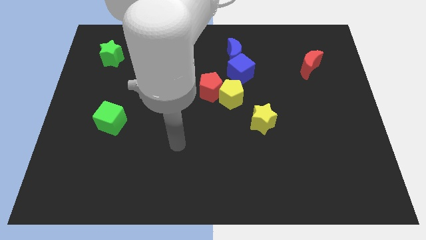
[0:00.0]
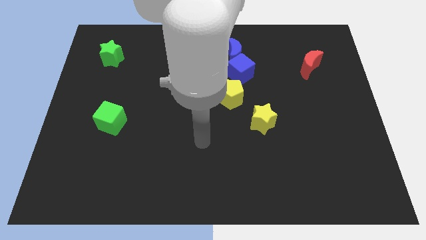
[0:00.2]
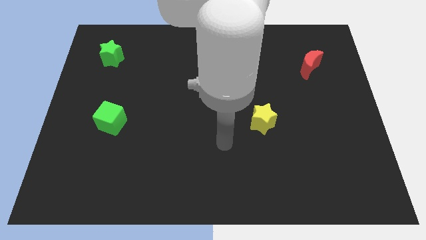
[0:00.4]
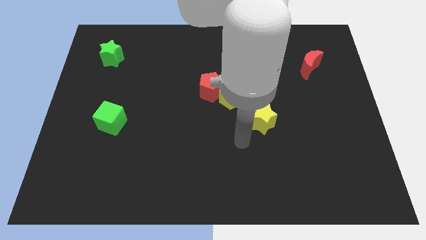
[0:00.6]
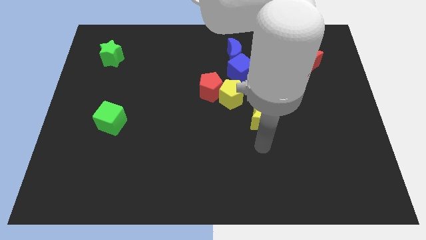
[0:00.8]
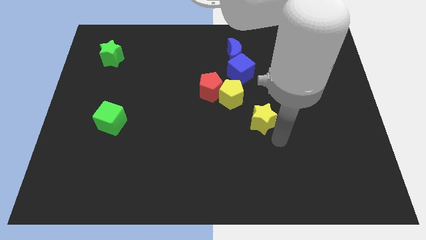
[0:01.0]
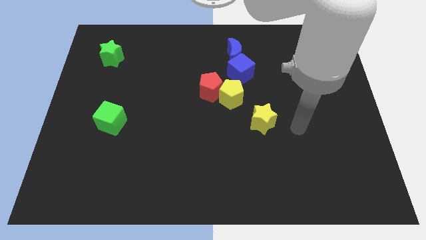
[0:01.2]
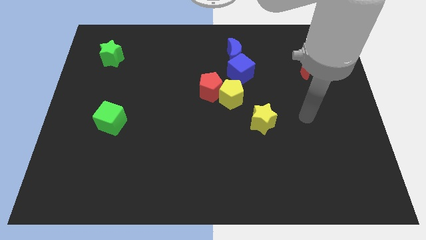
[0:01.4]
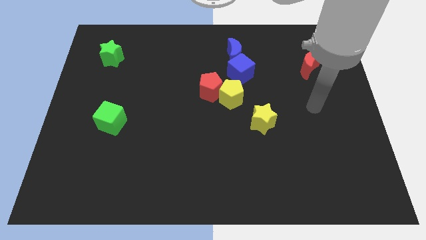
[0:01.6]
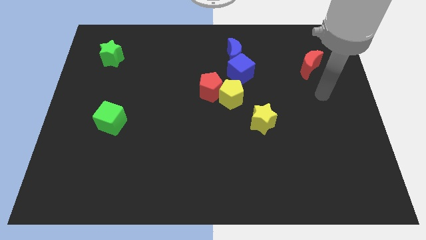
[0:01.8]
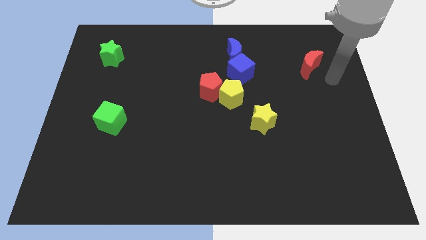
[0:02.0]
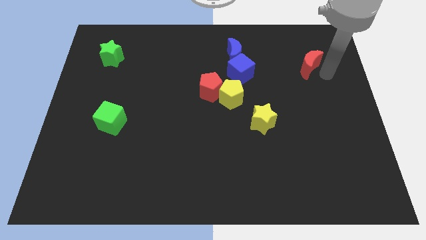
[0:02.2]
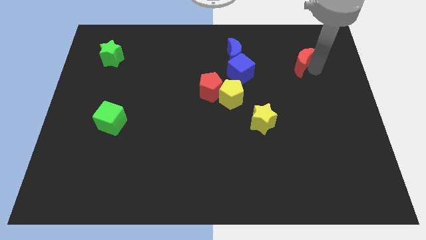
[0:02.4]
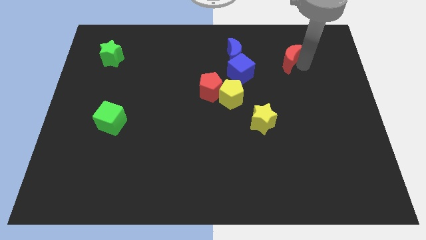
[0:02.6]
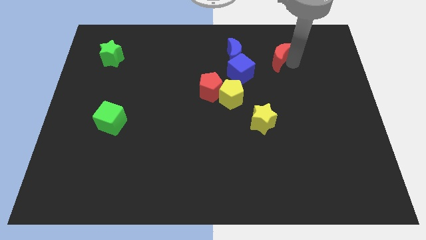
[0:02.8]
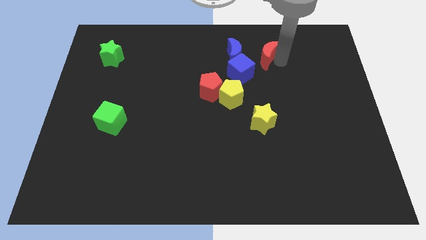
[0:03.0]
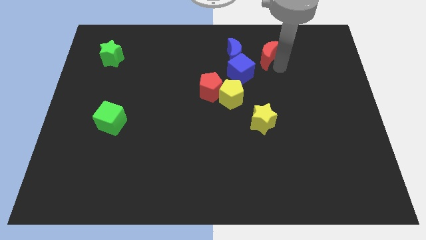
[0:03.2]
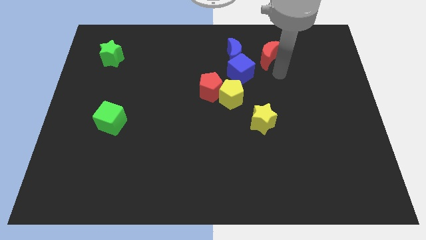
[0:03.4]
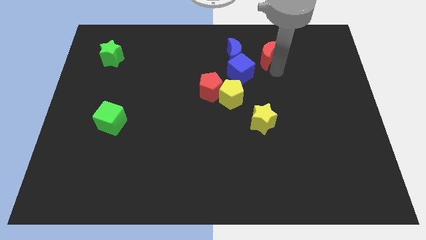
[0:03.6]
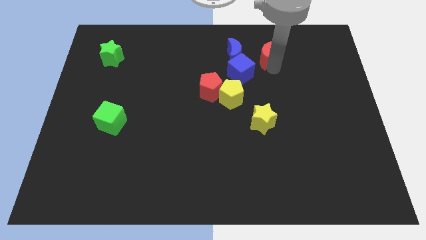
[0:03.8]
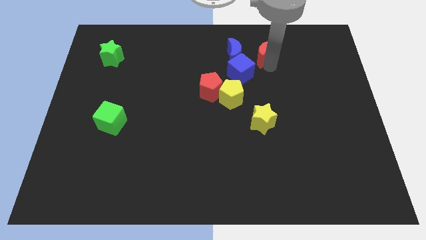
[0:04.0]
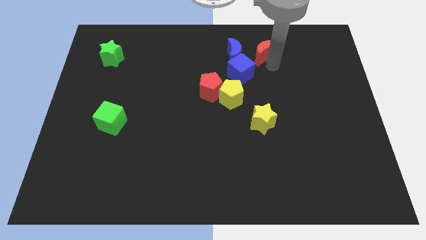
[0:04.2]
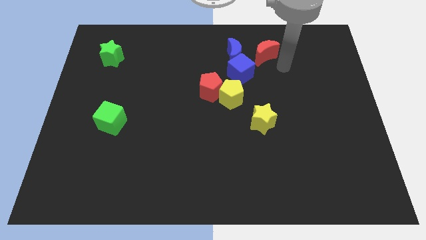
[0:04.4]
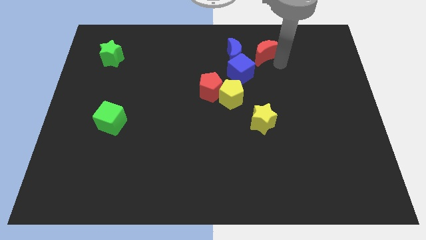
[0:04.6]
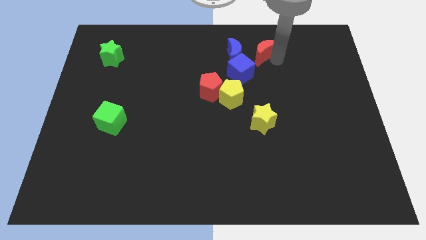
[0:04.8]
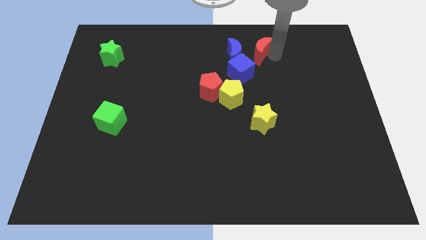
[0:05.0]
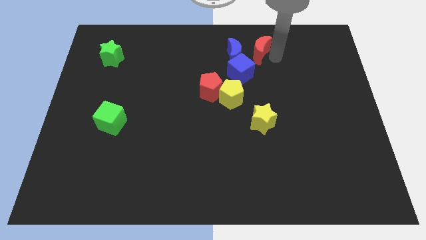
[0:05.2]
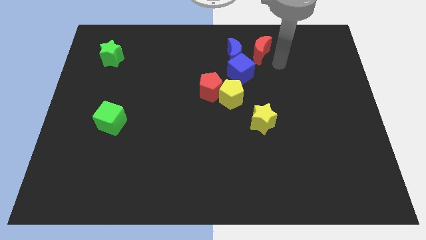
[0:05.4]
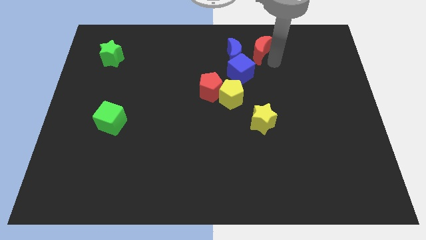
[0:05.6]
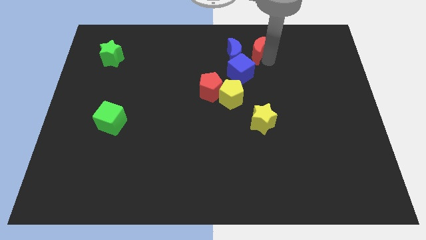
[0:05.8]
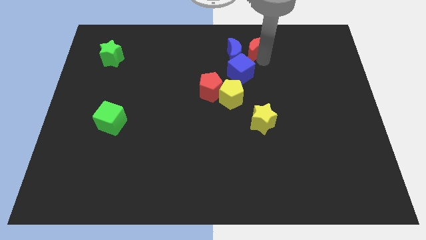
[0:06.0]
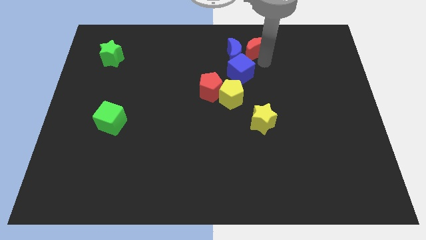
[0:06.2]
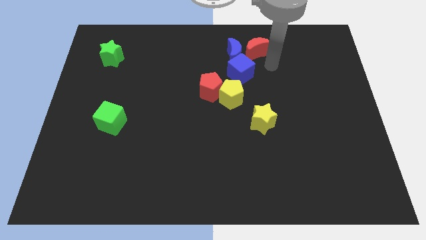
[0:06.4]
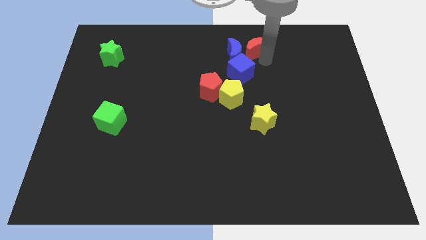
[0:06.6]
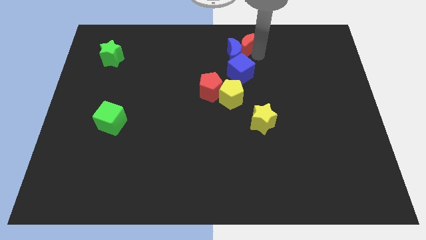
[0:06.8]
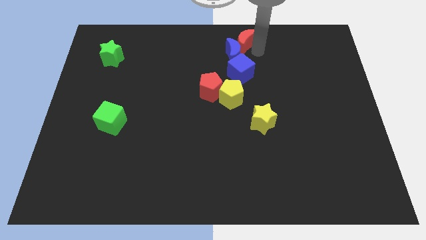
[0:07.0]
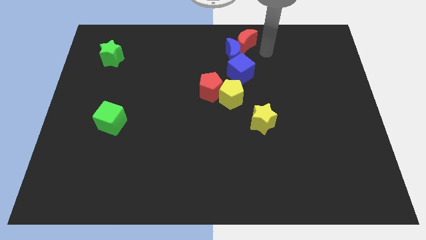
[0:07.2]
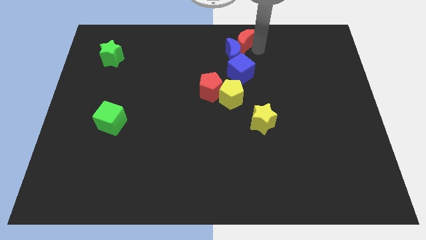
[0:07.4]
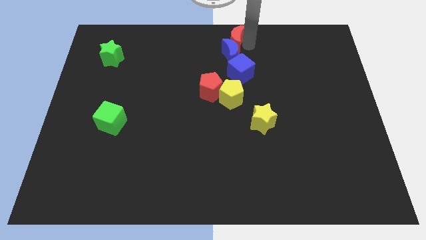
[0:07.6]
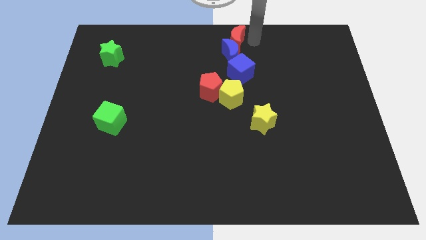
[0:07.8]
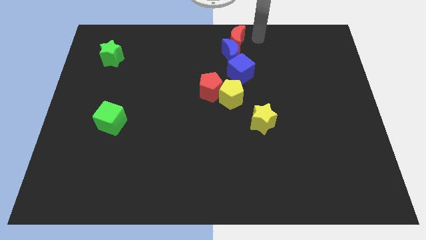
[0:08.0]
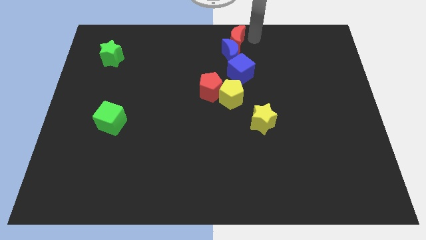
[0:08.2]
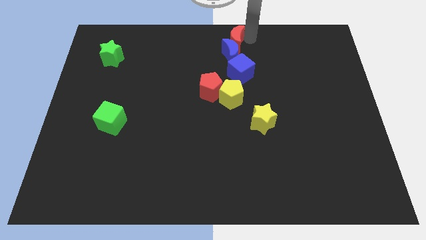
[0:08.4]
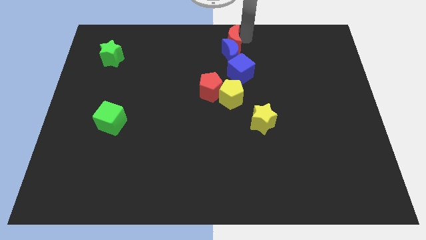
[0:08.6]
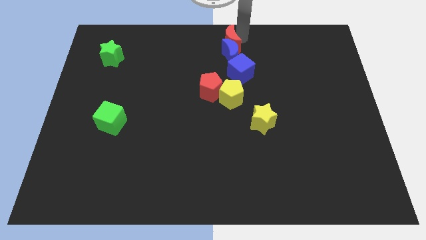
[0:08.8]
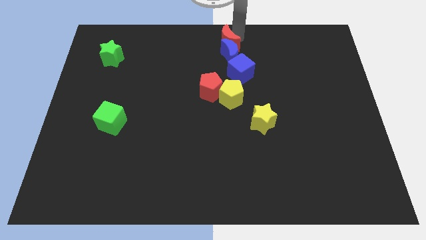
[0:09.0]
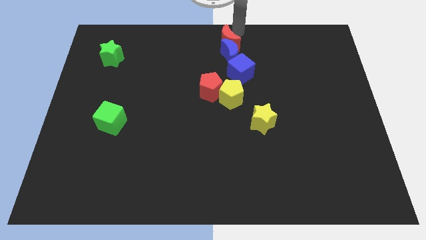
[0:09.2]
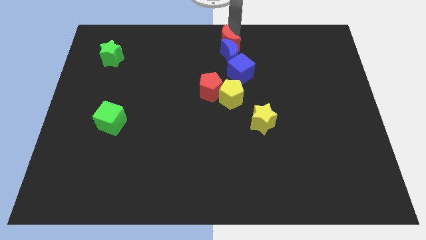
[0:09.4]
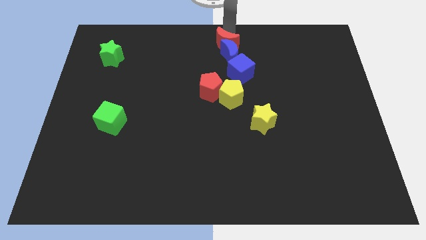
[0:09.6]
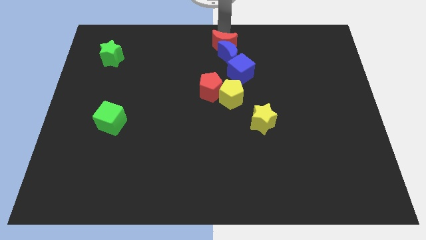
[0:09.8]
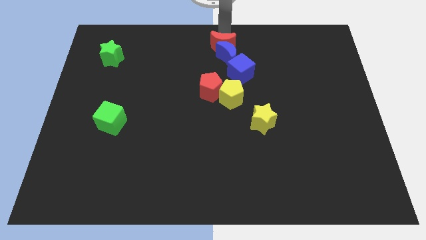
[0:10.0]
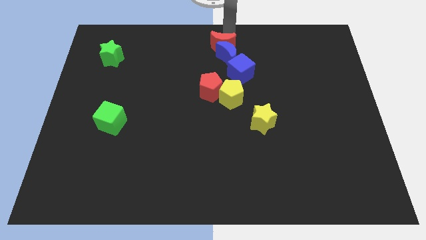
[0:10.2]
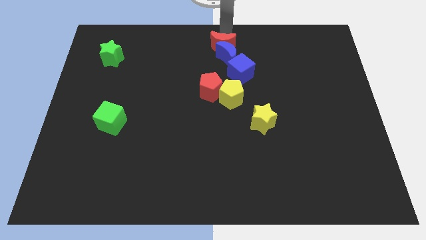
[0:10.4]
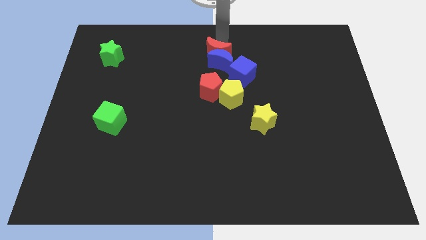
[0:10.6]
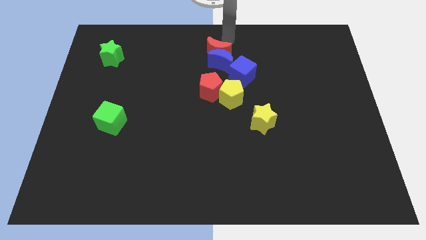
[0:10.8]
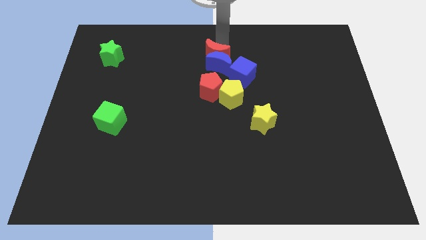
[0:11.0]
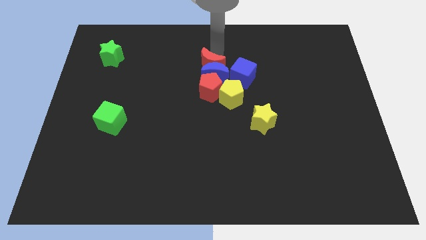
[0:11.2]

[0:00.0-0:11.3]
slide the red moon to the left side of the blue cube

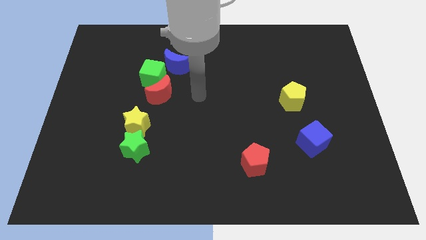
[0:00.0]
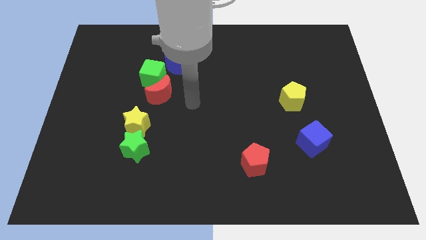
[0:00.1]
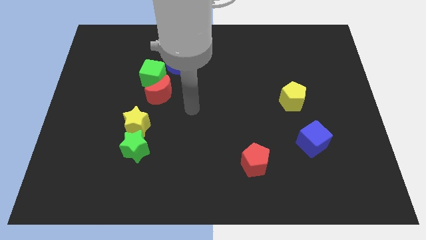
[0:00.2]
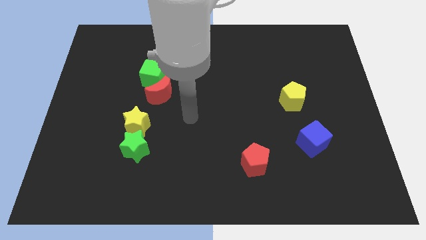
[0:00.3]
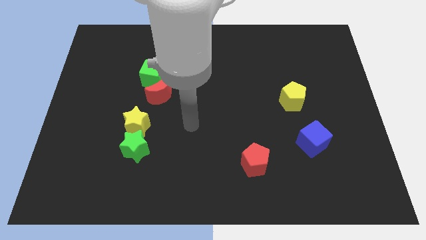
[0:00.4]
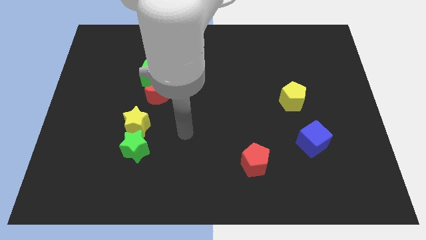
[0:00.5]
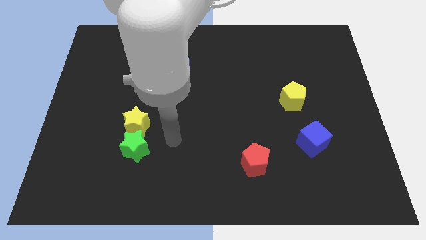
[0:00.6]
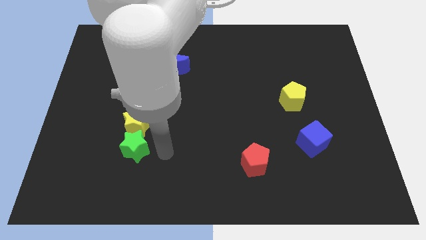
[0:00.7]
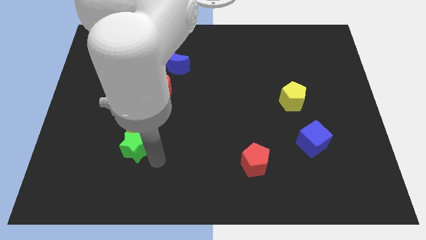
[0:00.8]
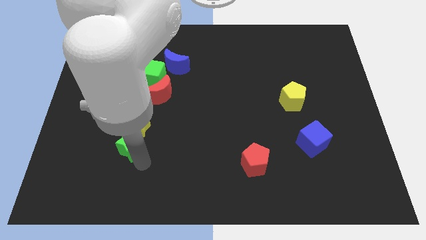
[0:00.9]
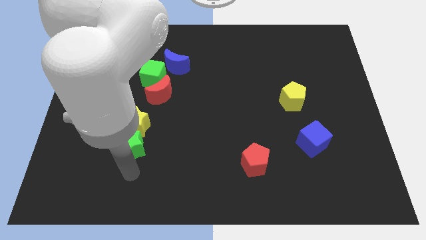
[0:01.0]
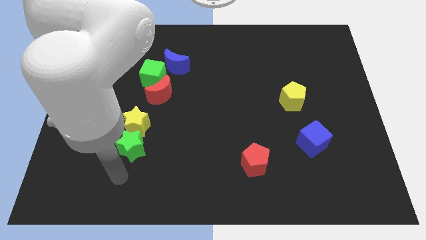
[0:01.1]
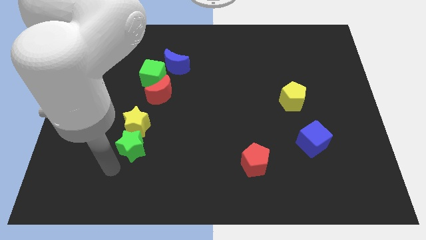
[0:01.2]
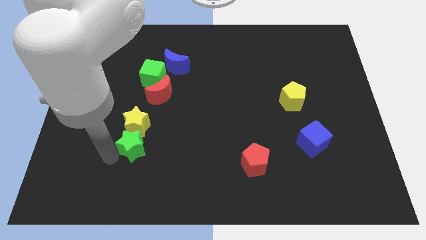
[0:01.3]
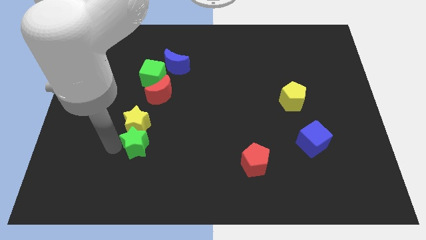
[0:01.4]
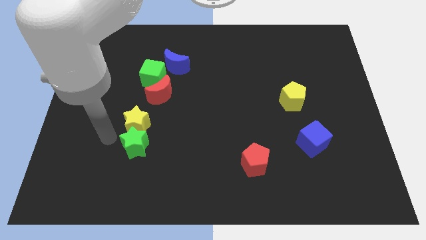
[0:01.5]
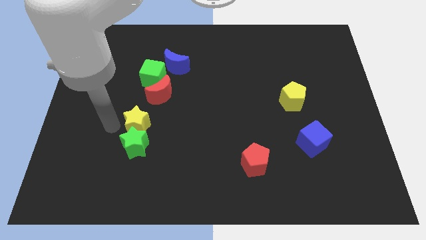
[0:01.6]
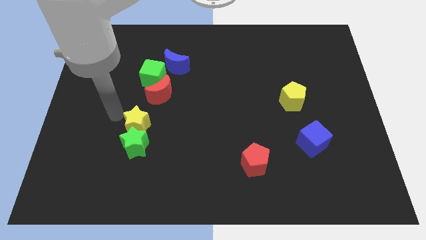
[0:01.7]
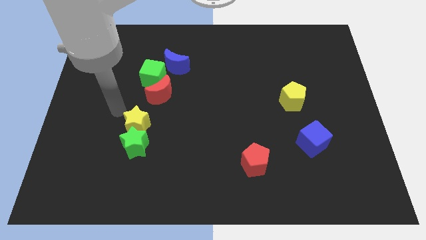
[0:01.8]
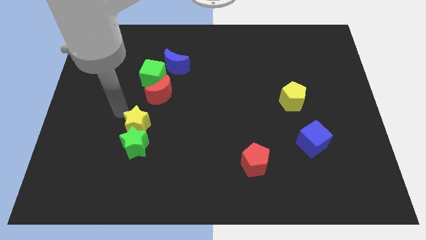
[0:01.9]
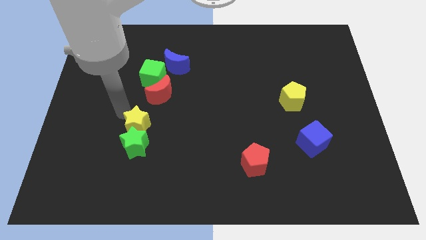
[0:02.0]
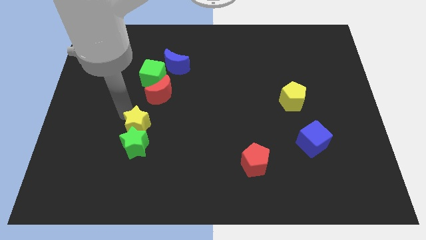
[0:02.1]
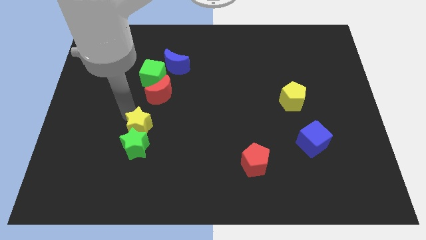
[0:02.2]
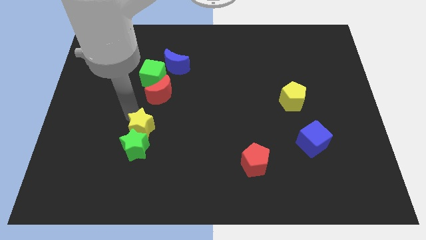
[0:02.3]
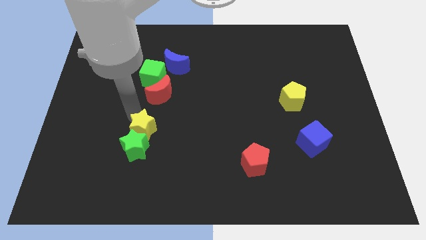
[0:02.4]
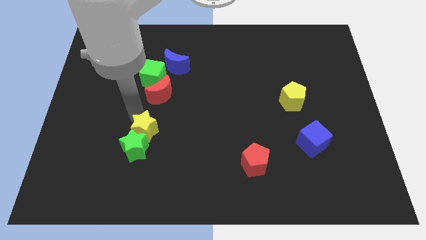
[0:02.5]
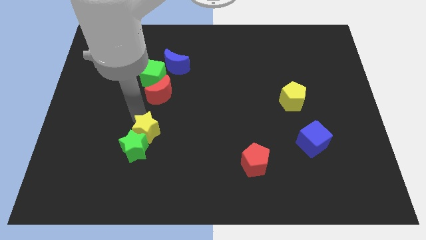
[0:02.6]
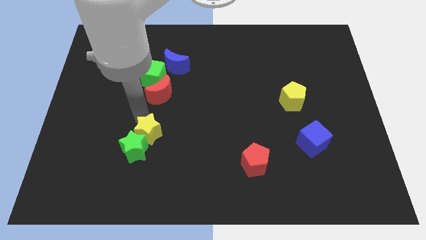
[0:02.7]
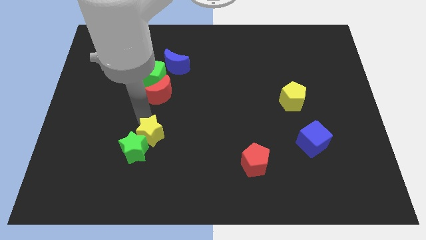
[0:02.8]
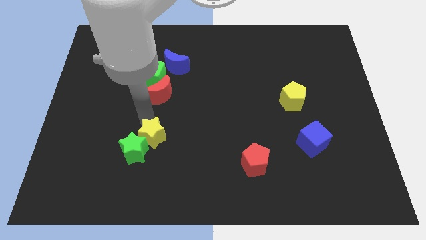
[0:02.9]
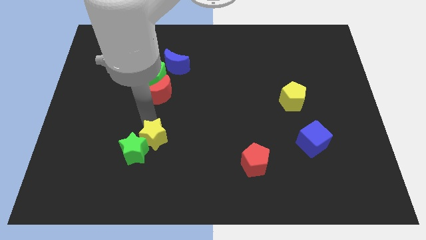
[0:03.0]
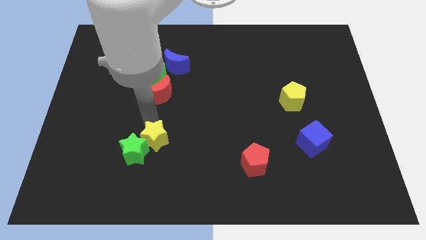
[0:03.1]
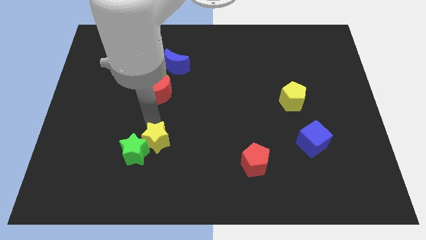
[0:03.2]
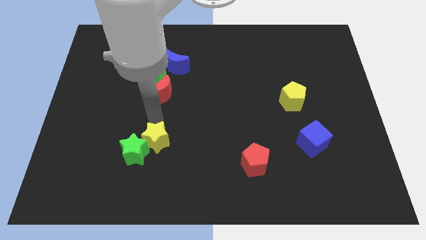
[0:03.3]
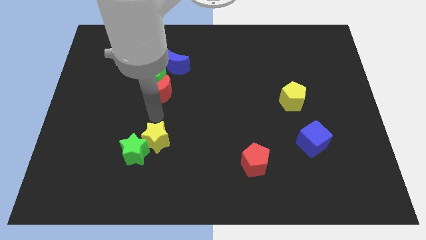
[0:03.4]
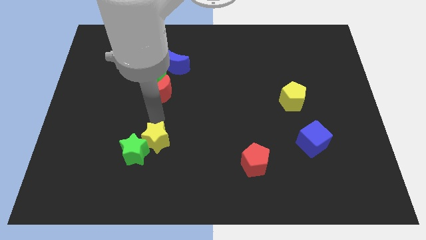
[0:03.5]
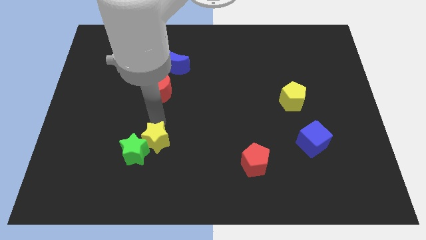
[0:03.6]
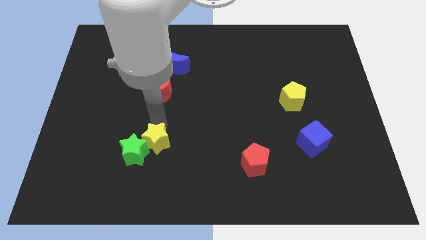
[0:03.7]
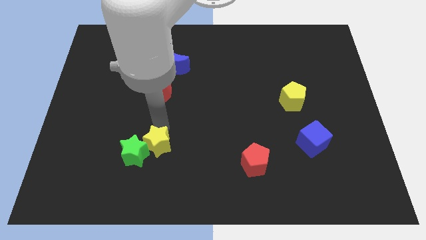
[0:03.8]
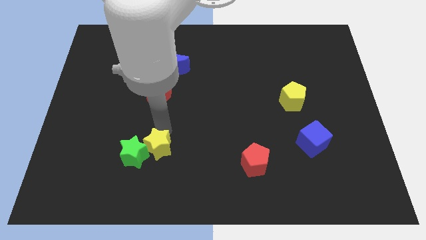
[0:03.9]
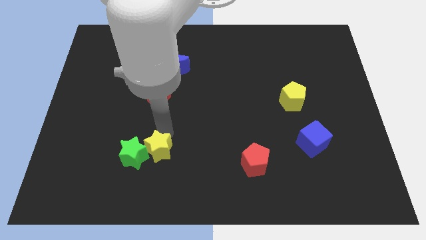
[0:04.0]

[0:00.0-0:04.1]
push the yellow star to the bottom right of the green star
